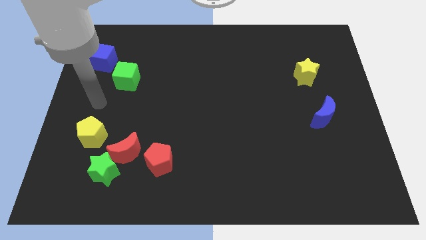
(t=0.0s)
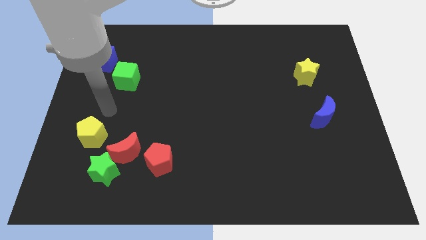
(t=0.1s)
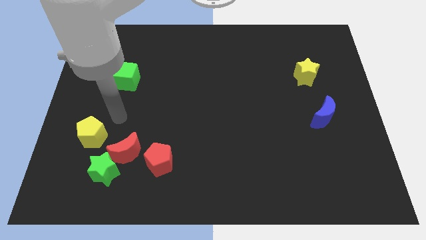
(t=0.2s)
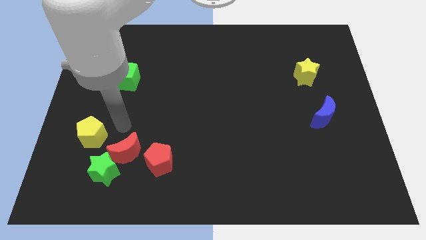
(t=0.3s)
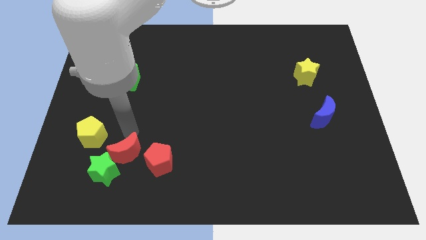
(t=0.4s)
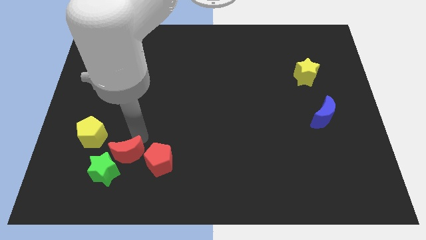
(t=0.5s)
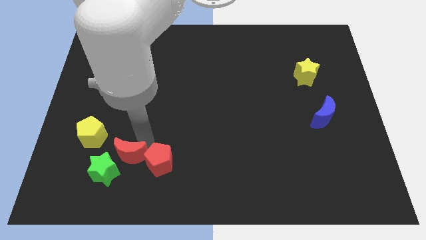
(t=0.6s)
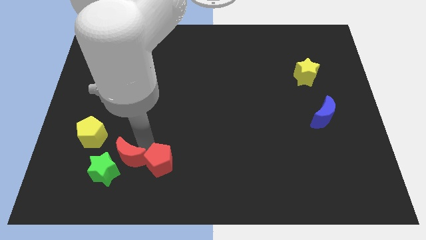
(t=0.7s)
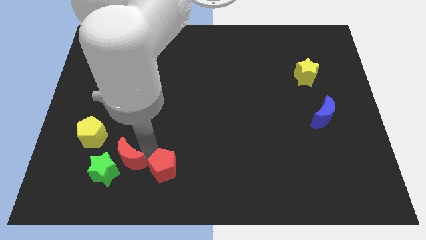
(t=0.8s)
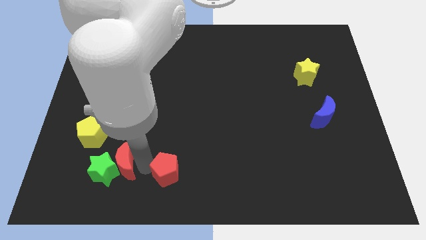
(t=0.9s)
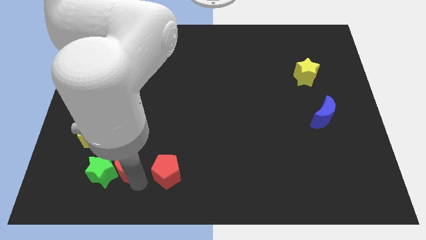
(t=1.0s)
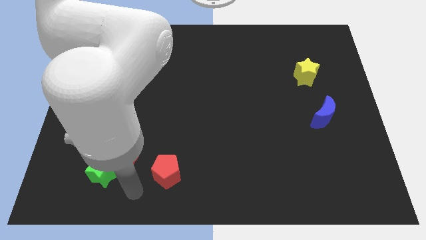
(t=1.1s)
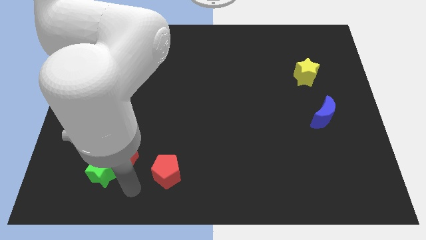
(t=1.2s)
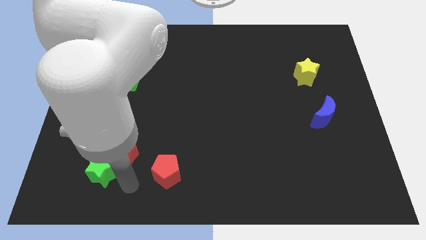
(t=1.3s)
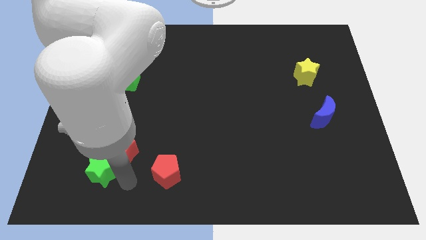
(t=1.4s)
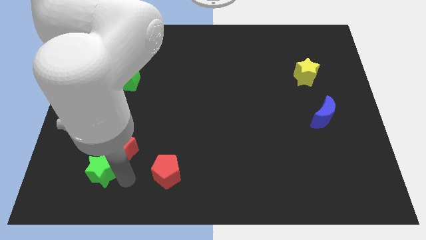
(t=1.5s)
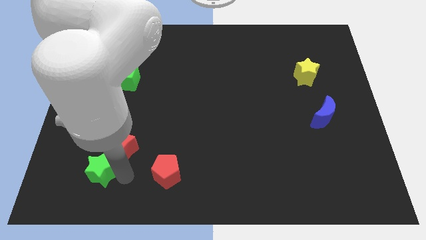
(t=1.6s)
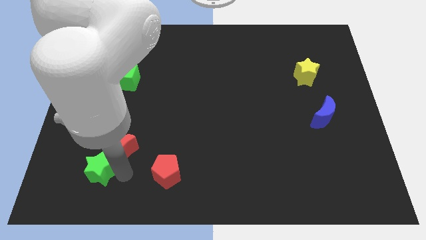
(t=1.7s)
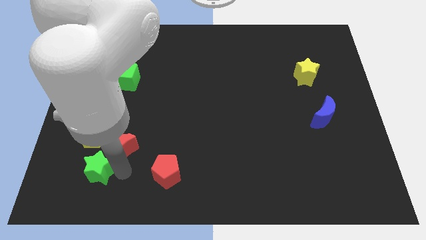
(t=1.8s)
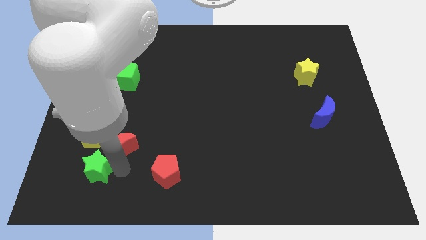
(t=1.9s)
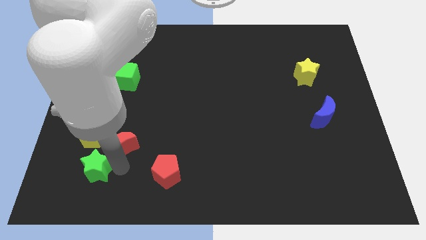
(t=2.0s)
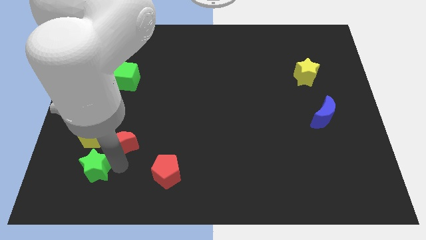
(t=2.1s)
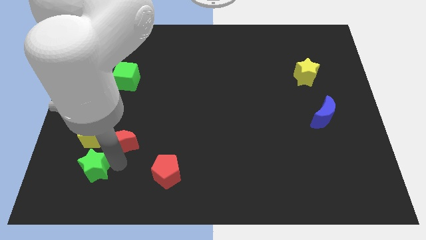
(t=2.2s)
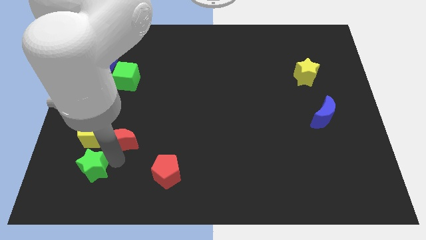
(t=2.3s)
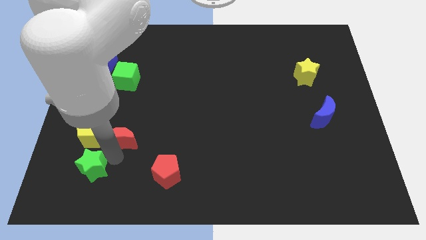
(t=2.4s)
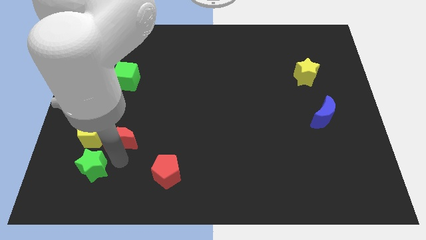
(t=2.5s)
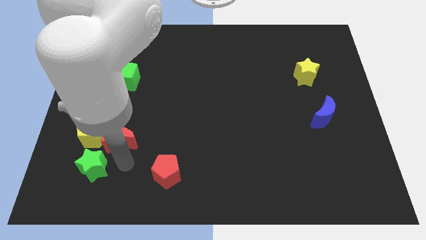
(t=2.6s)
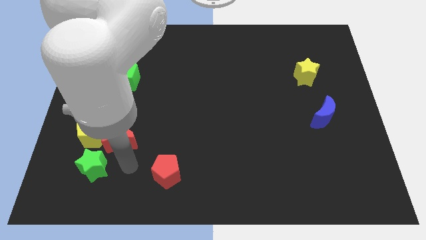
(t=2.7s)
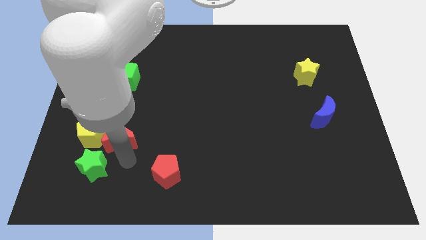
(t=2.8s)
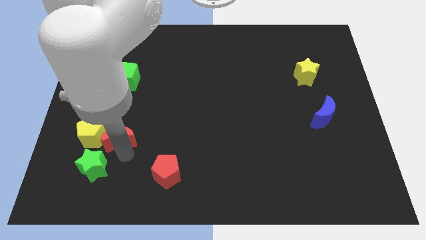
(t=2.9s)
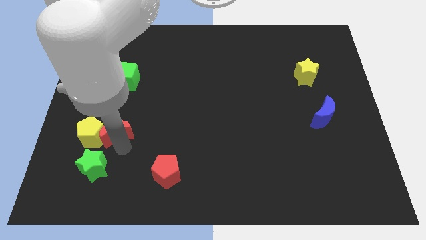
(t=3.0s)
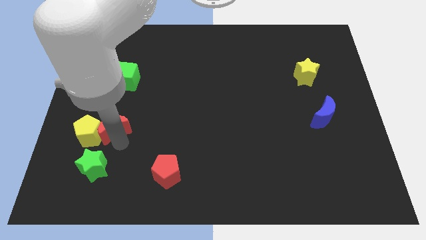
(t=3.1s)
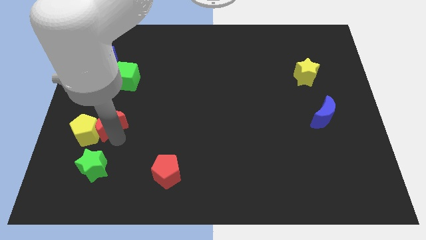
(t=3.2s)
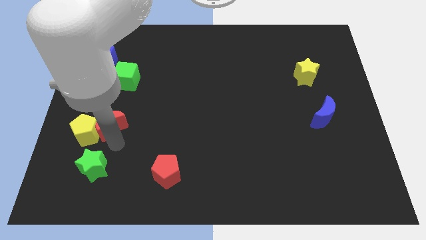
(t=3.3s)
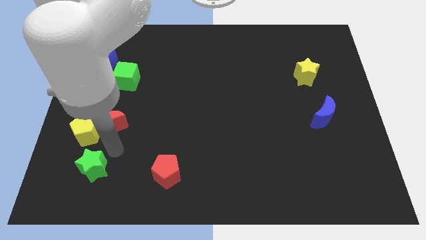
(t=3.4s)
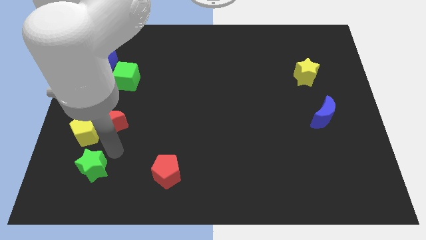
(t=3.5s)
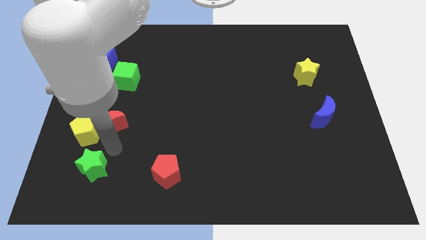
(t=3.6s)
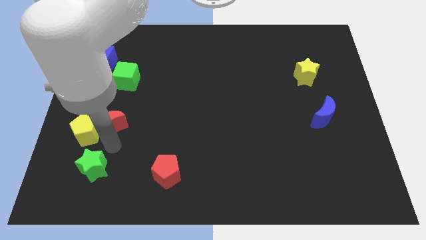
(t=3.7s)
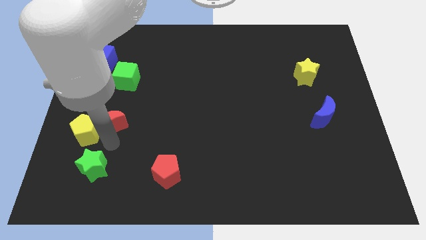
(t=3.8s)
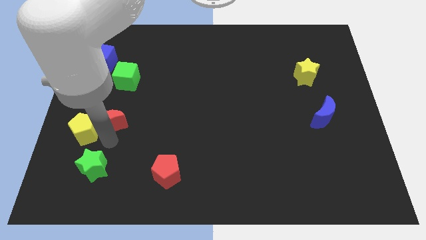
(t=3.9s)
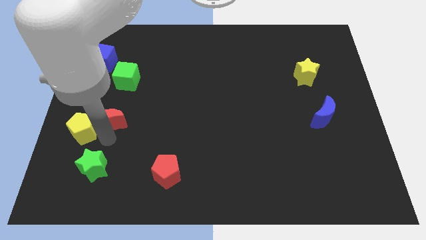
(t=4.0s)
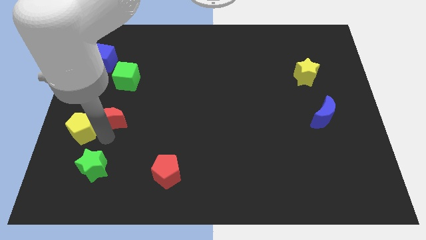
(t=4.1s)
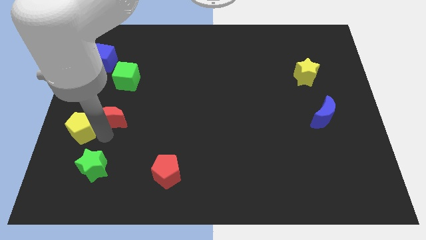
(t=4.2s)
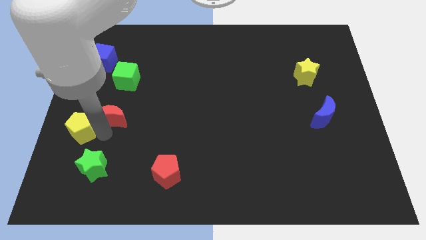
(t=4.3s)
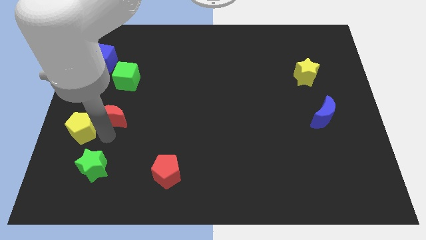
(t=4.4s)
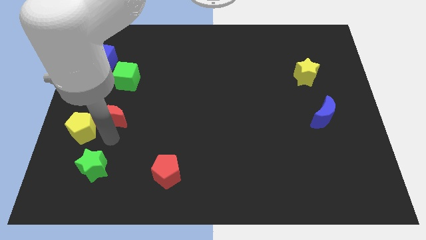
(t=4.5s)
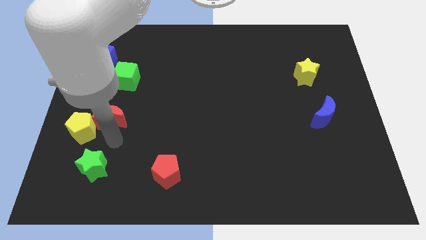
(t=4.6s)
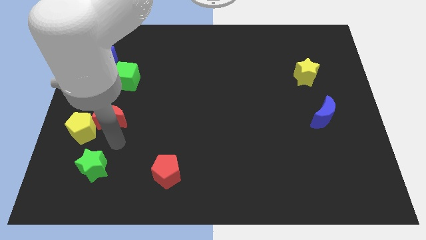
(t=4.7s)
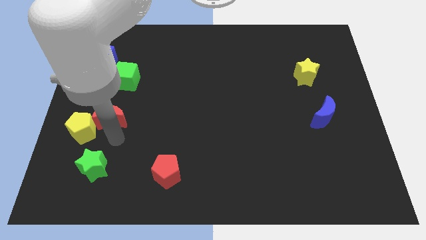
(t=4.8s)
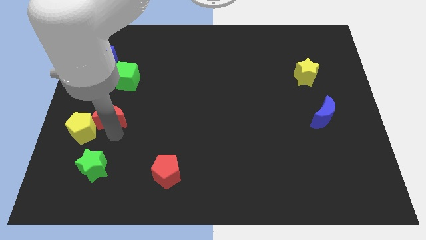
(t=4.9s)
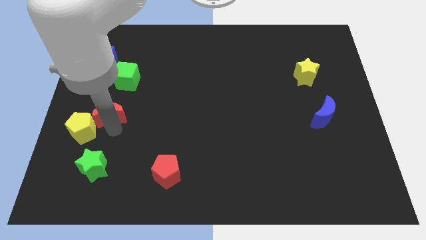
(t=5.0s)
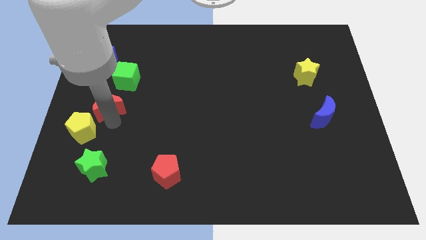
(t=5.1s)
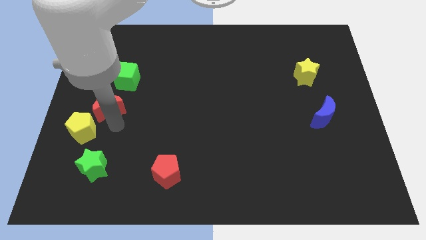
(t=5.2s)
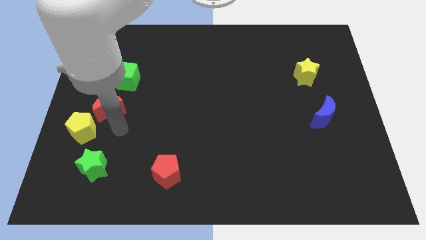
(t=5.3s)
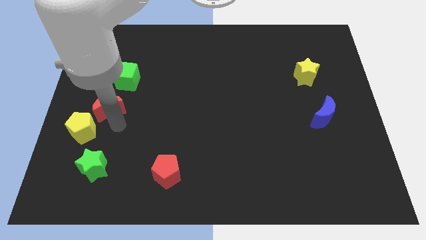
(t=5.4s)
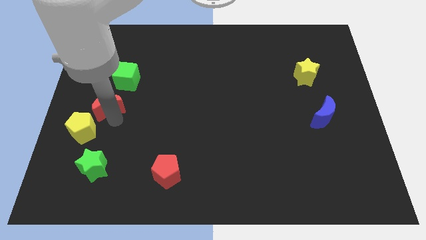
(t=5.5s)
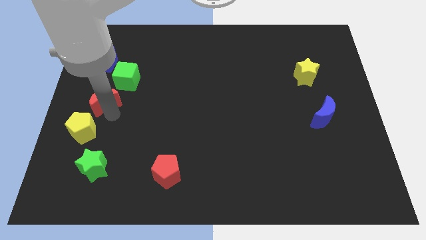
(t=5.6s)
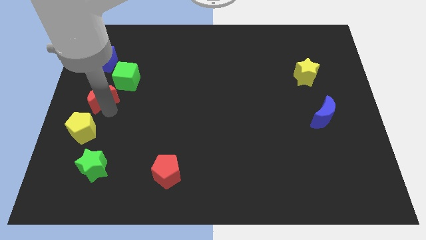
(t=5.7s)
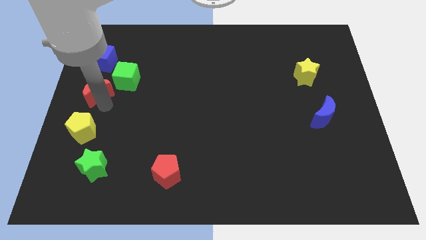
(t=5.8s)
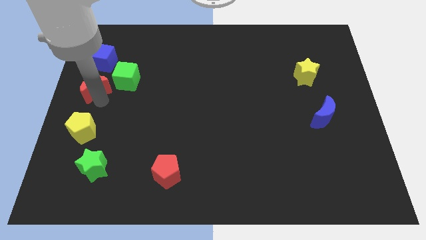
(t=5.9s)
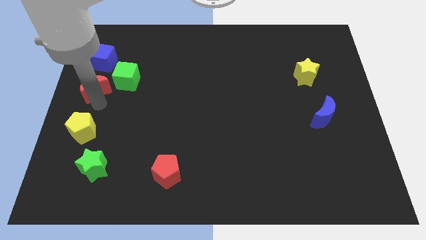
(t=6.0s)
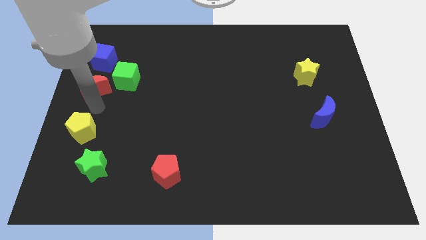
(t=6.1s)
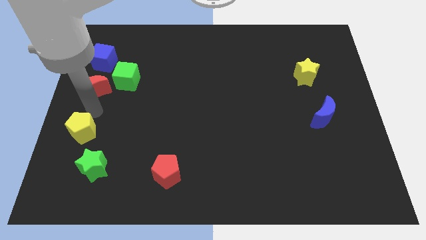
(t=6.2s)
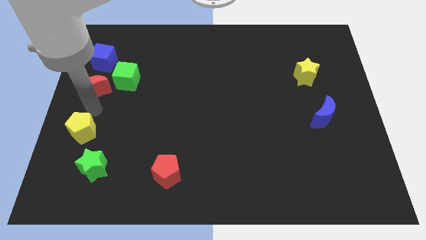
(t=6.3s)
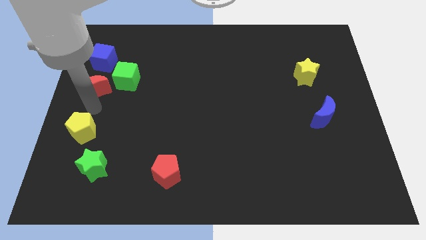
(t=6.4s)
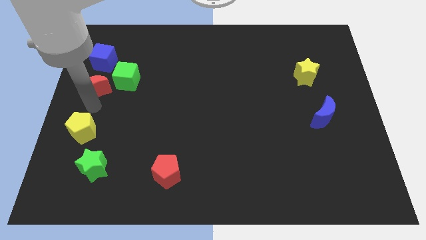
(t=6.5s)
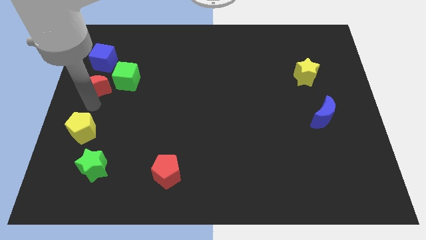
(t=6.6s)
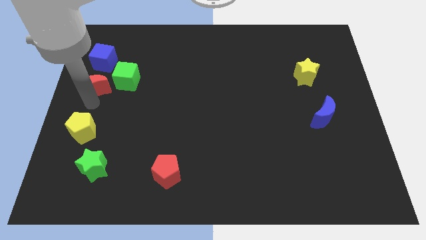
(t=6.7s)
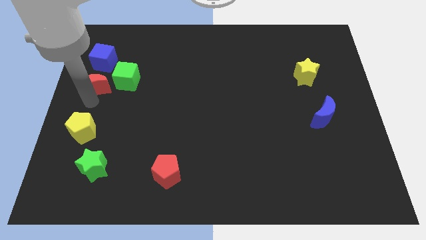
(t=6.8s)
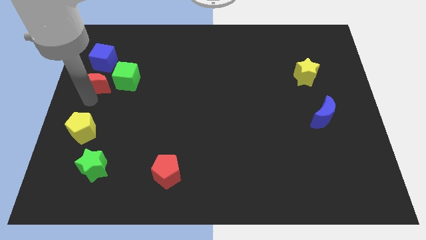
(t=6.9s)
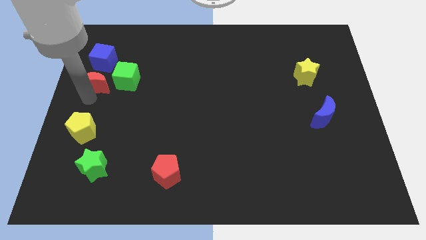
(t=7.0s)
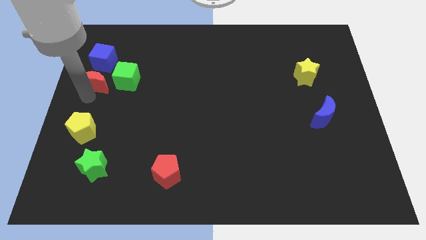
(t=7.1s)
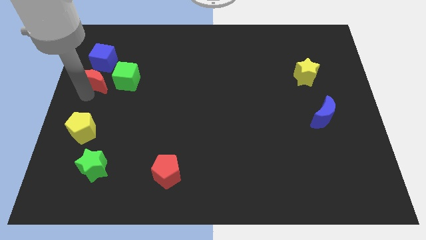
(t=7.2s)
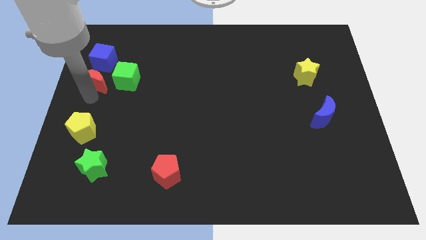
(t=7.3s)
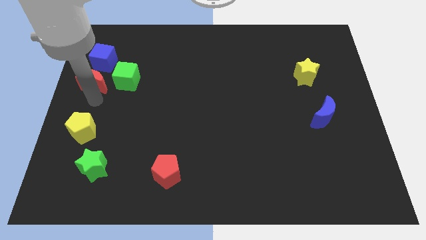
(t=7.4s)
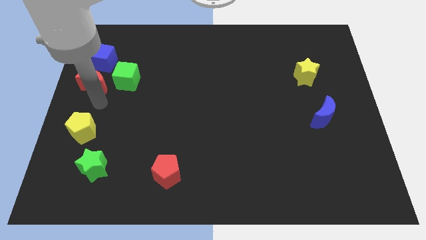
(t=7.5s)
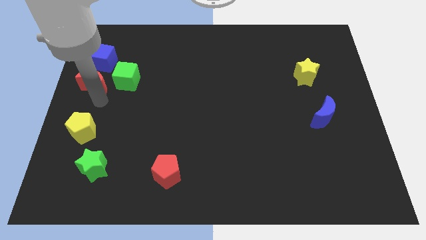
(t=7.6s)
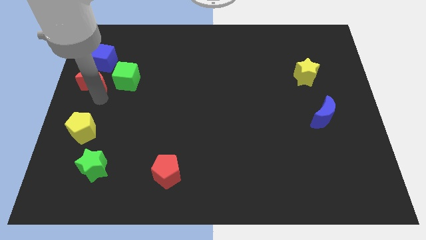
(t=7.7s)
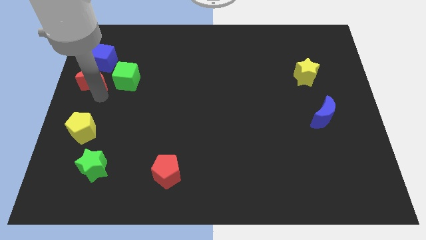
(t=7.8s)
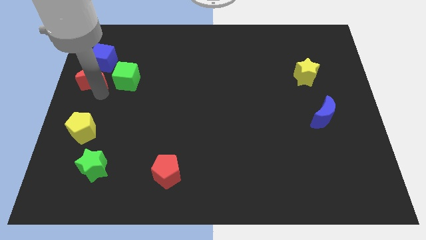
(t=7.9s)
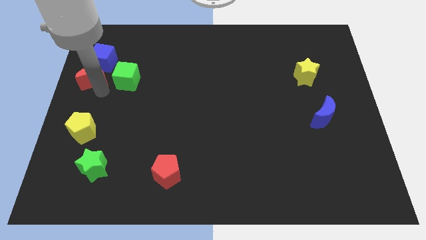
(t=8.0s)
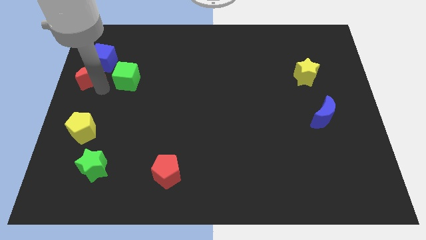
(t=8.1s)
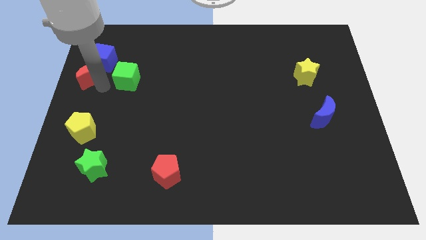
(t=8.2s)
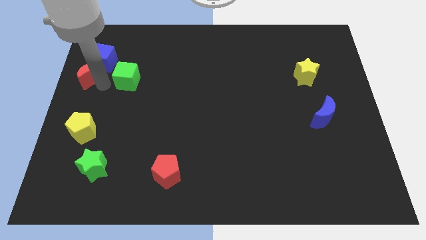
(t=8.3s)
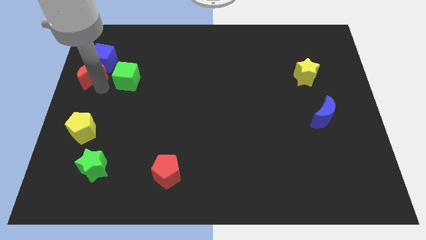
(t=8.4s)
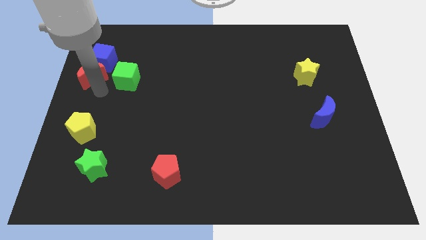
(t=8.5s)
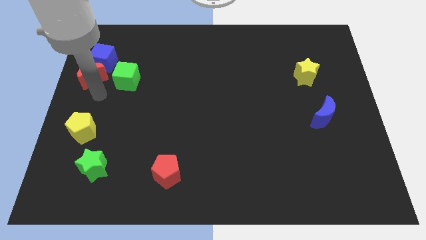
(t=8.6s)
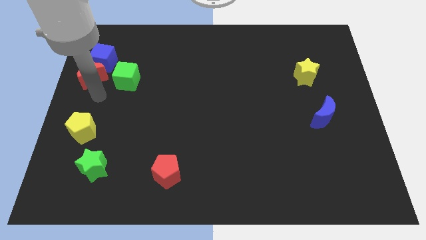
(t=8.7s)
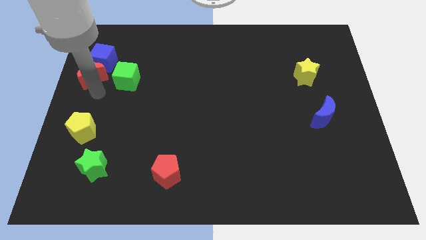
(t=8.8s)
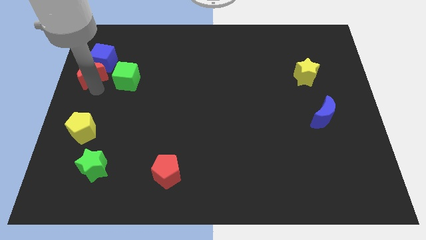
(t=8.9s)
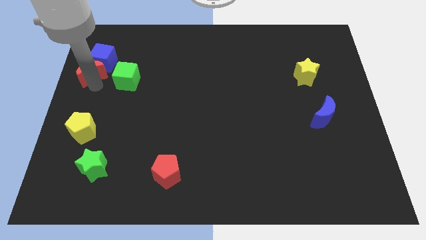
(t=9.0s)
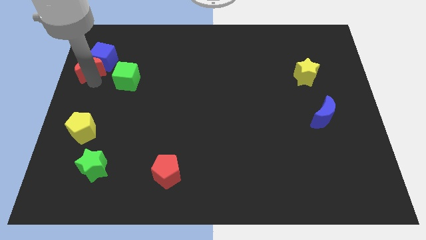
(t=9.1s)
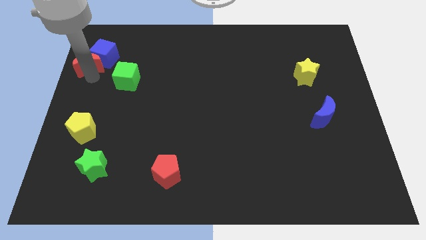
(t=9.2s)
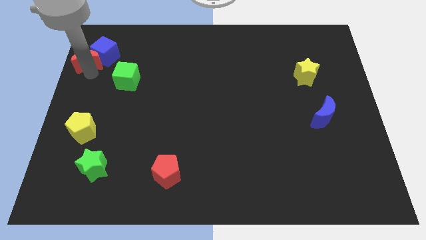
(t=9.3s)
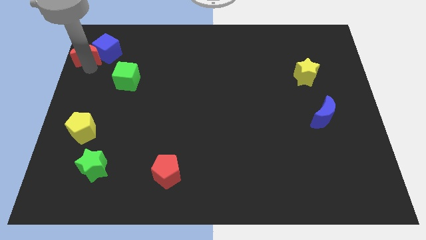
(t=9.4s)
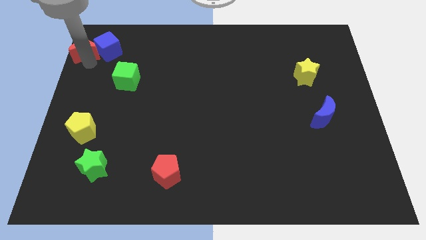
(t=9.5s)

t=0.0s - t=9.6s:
move the red moon to the upper left corner
